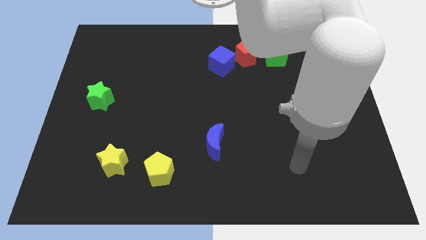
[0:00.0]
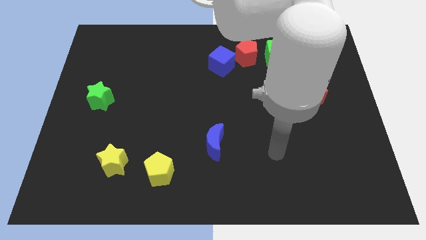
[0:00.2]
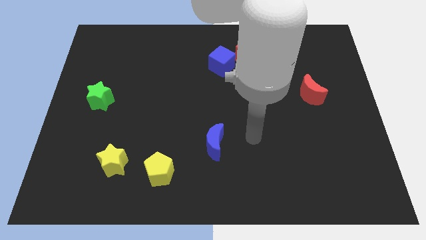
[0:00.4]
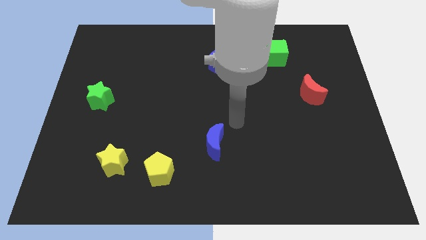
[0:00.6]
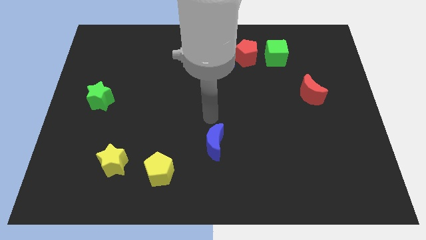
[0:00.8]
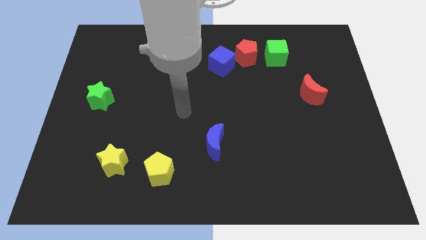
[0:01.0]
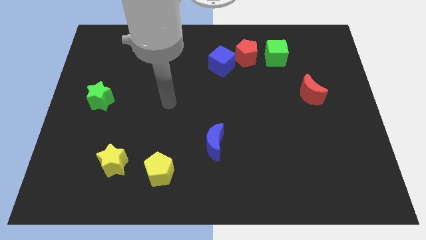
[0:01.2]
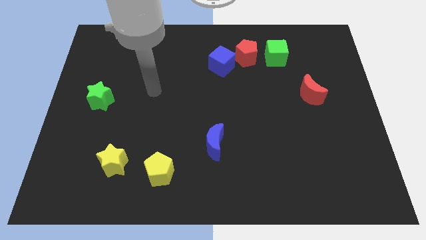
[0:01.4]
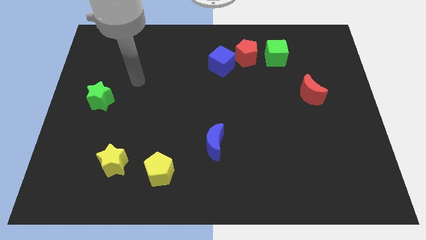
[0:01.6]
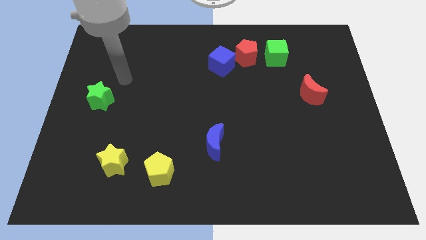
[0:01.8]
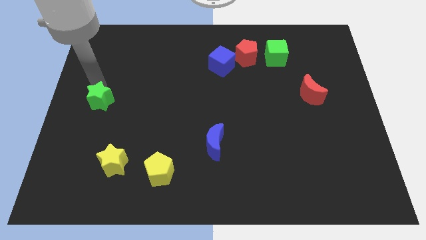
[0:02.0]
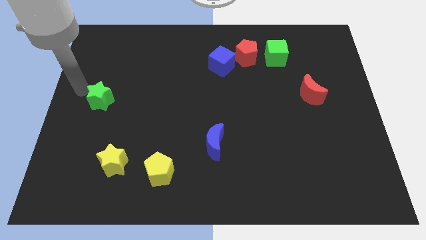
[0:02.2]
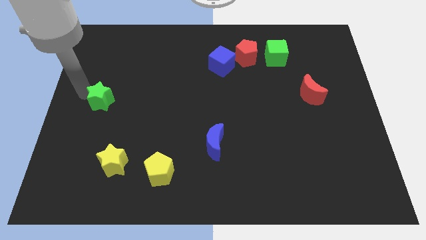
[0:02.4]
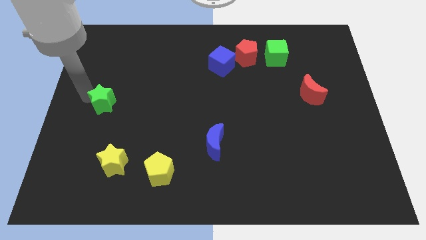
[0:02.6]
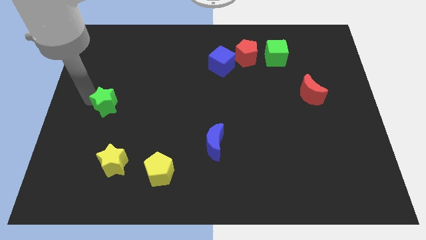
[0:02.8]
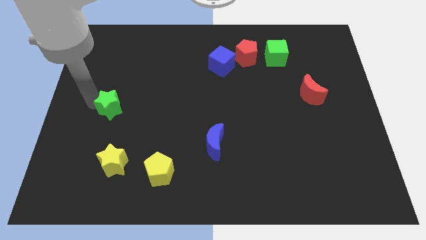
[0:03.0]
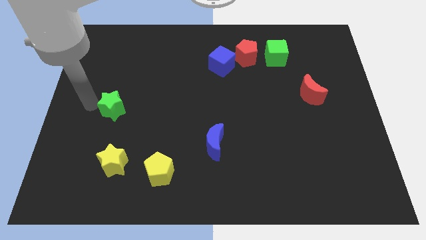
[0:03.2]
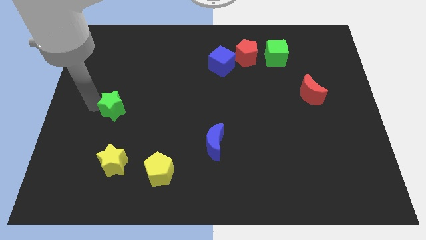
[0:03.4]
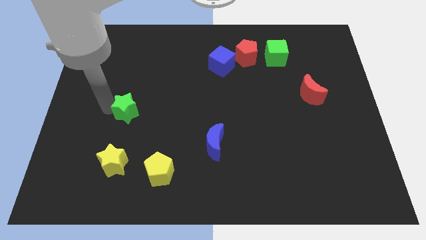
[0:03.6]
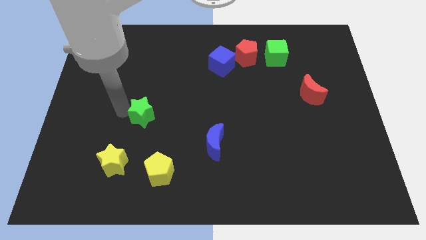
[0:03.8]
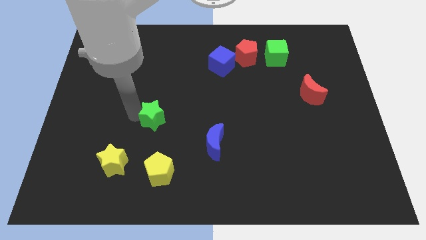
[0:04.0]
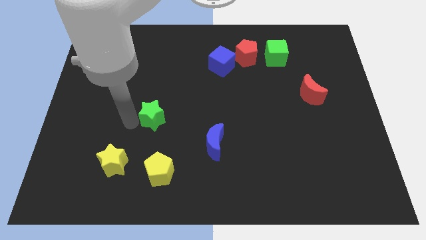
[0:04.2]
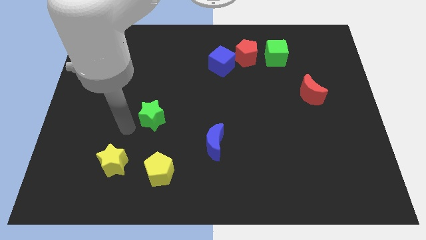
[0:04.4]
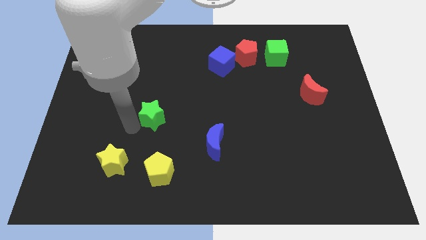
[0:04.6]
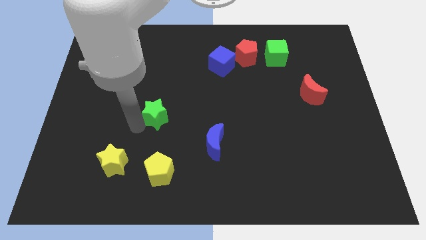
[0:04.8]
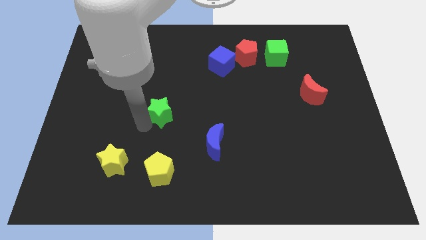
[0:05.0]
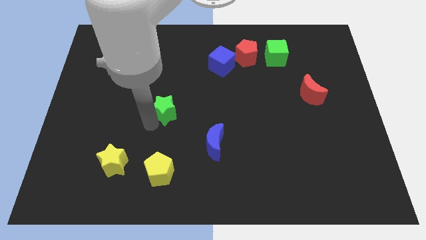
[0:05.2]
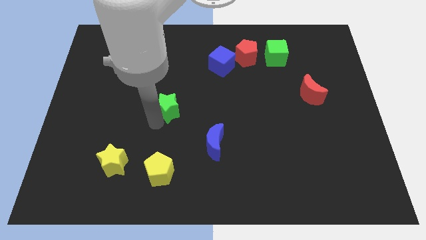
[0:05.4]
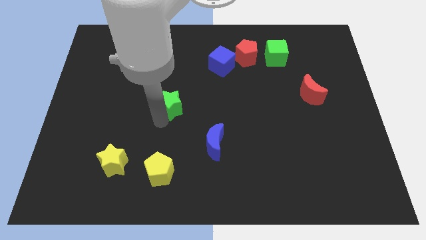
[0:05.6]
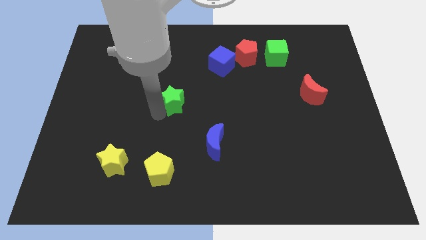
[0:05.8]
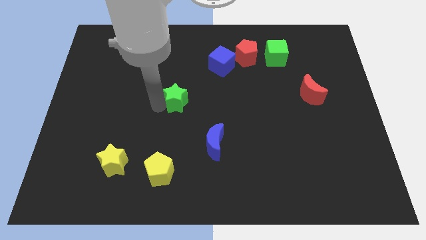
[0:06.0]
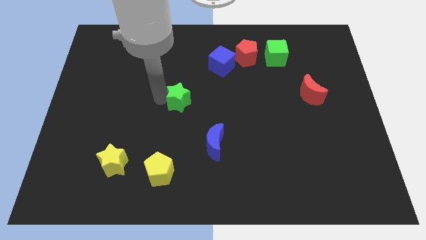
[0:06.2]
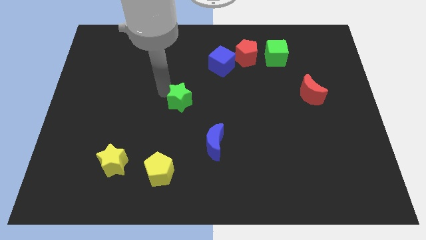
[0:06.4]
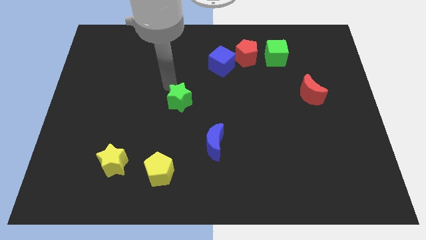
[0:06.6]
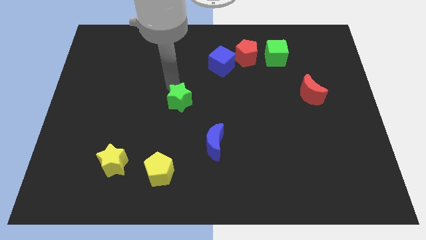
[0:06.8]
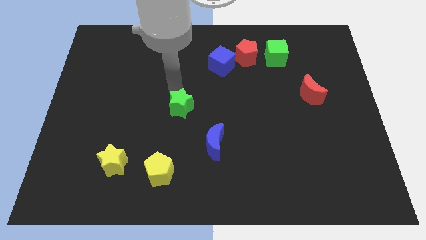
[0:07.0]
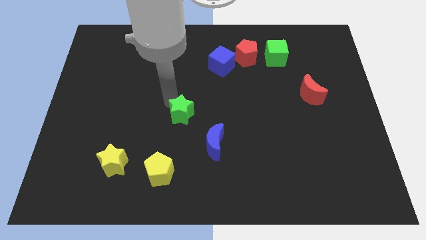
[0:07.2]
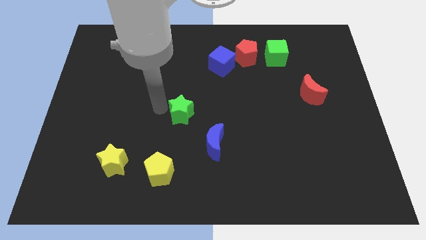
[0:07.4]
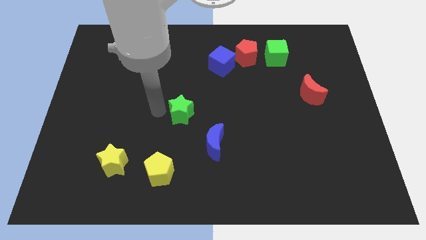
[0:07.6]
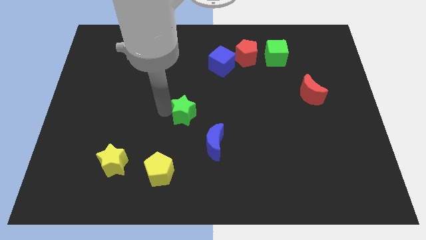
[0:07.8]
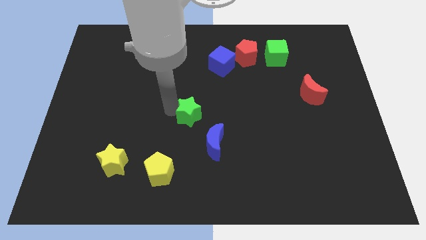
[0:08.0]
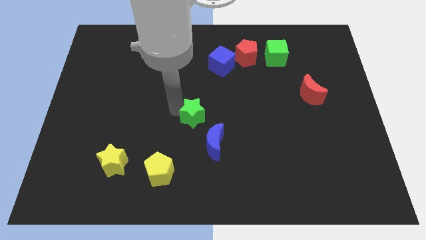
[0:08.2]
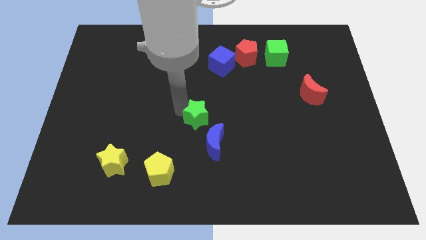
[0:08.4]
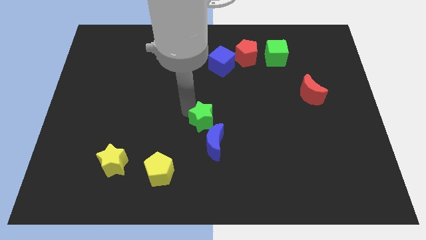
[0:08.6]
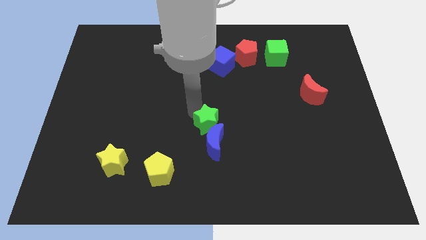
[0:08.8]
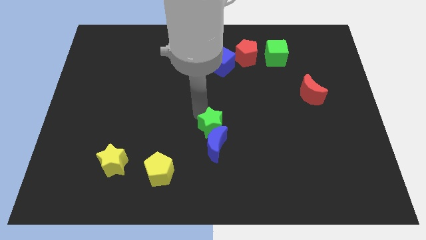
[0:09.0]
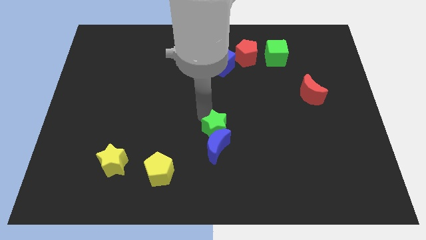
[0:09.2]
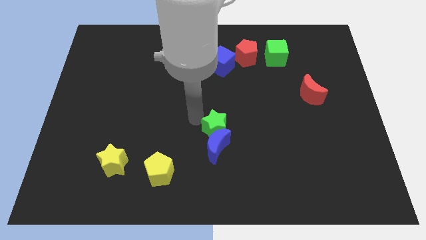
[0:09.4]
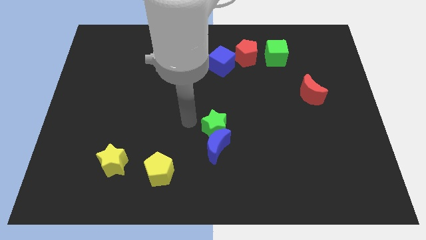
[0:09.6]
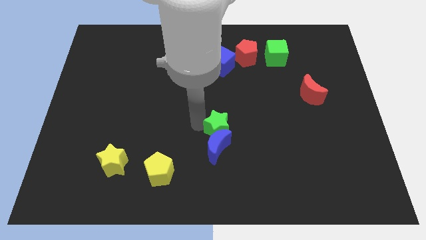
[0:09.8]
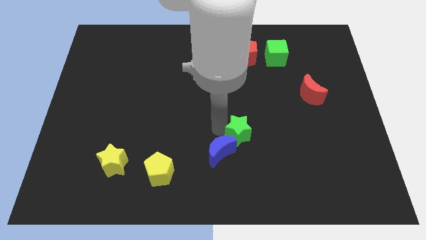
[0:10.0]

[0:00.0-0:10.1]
put the green star to the right of the blue moon

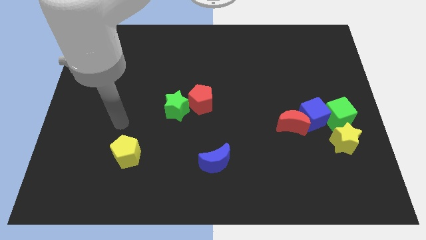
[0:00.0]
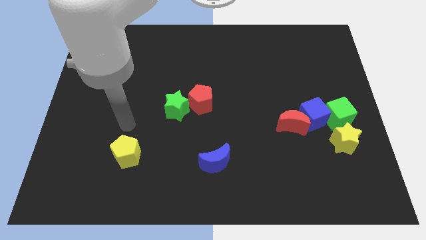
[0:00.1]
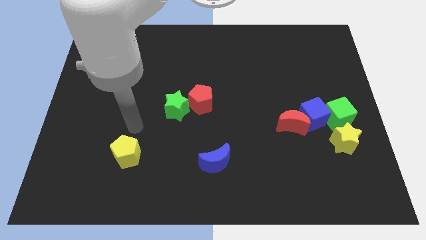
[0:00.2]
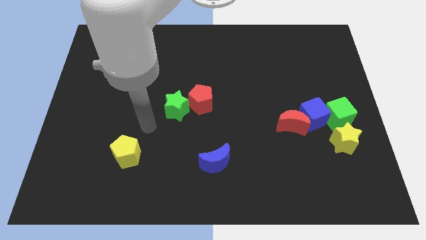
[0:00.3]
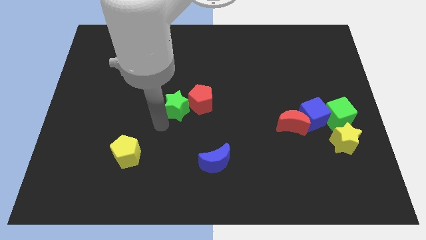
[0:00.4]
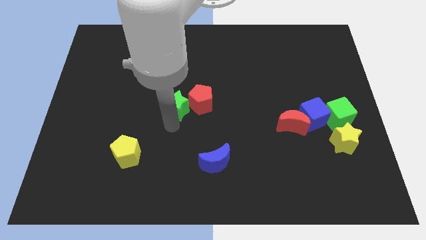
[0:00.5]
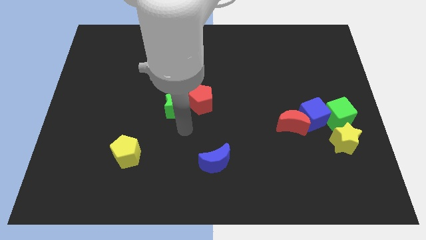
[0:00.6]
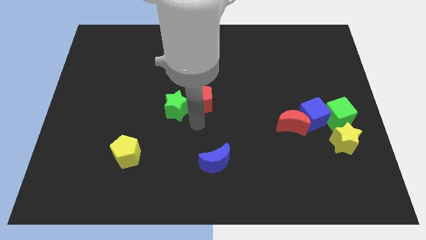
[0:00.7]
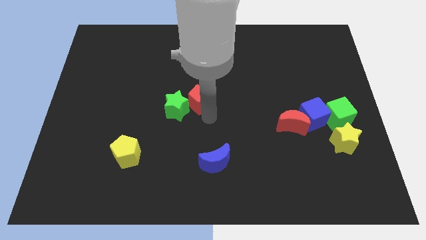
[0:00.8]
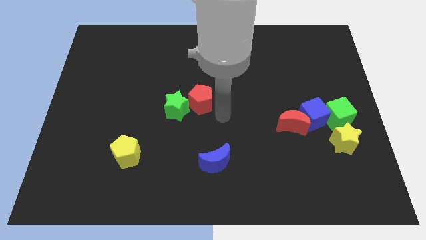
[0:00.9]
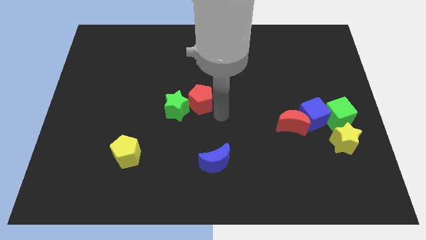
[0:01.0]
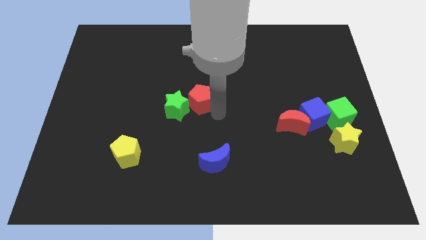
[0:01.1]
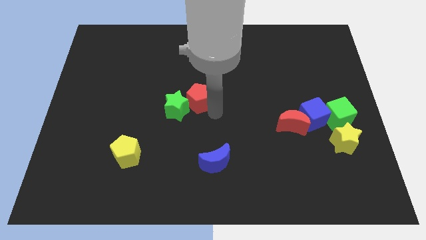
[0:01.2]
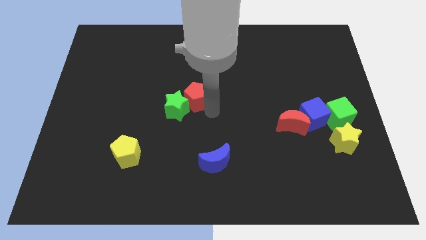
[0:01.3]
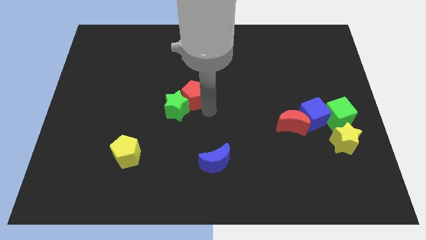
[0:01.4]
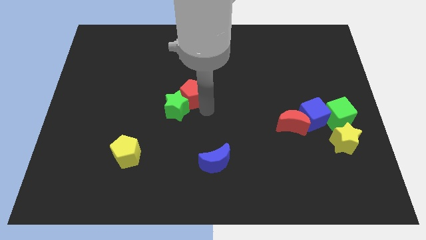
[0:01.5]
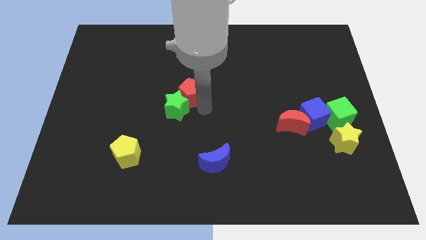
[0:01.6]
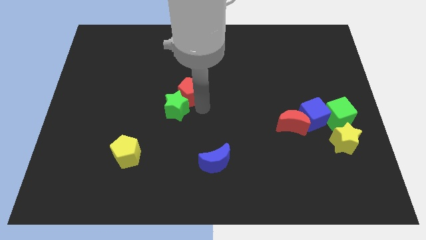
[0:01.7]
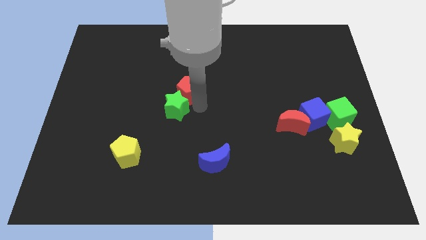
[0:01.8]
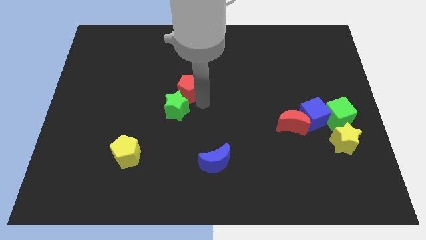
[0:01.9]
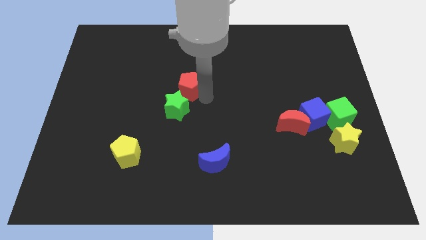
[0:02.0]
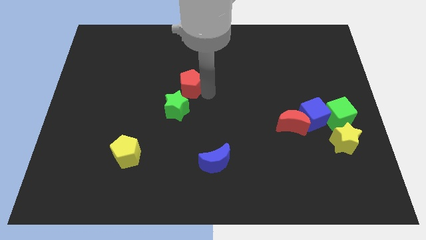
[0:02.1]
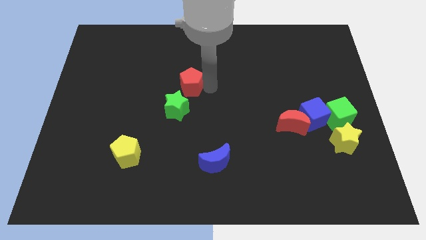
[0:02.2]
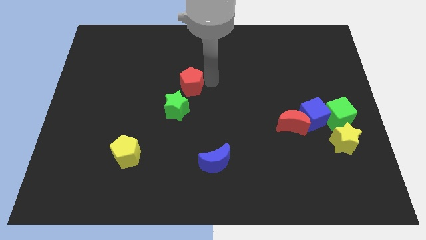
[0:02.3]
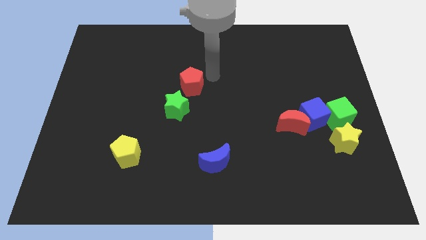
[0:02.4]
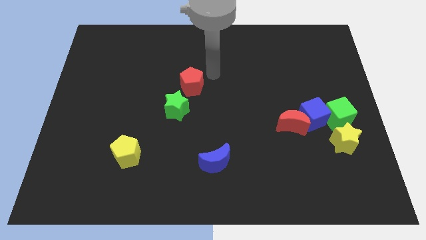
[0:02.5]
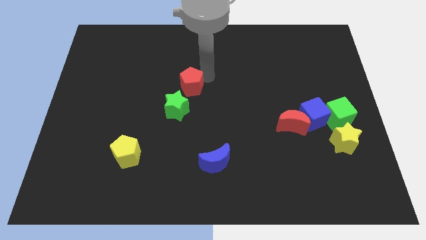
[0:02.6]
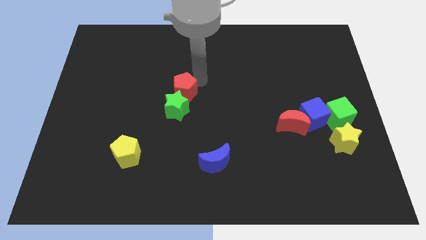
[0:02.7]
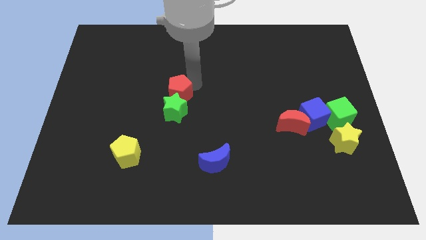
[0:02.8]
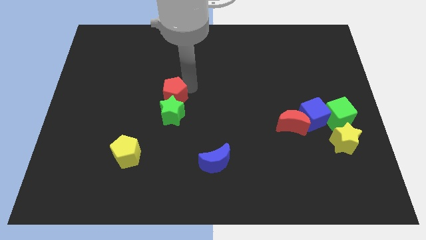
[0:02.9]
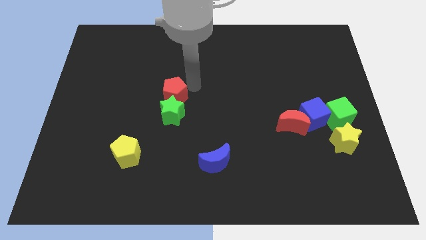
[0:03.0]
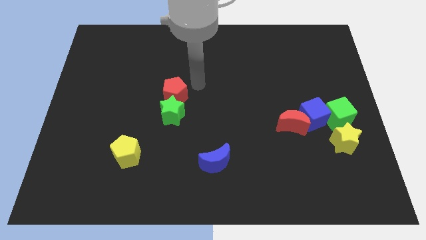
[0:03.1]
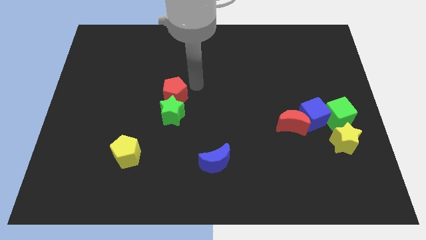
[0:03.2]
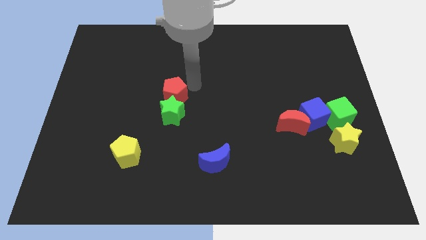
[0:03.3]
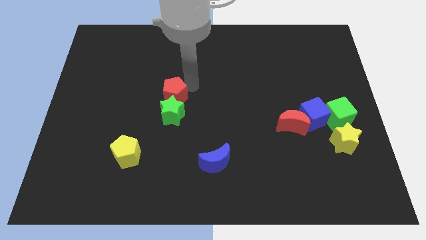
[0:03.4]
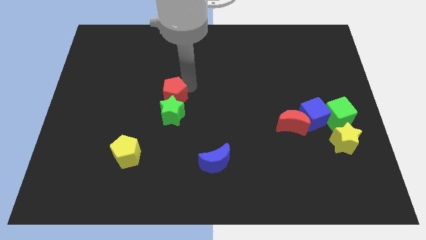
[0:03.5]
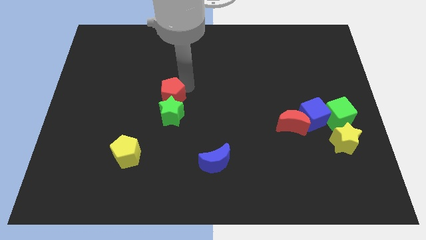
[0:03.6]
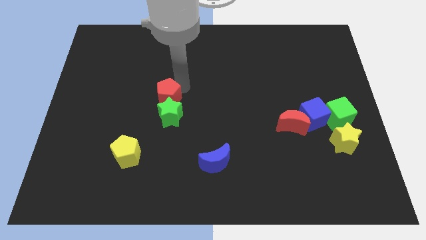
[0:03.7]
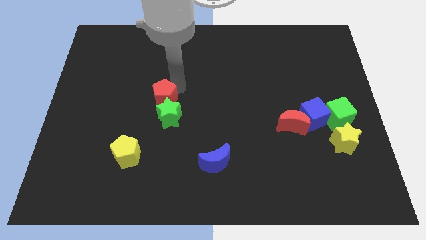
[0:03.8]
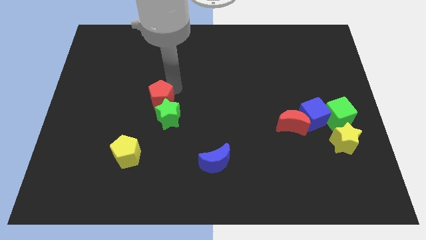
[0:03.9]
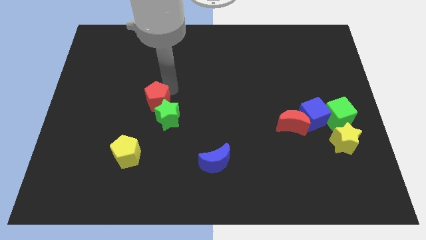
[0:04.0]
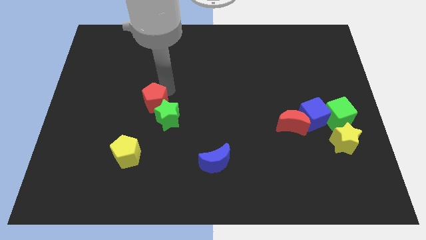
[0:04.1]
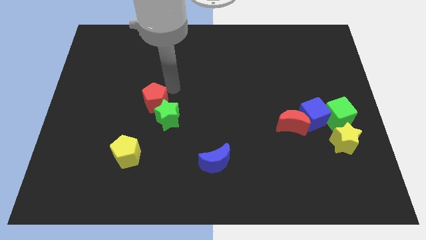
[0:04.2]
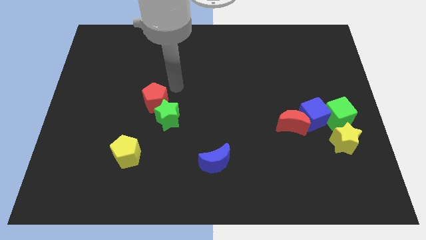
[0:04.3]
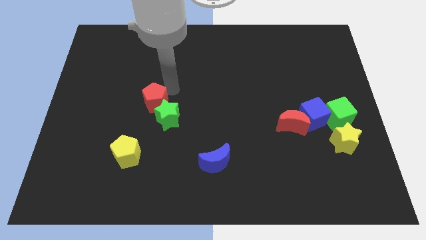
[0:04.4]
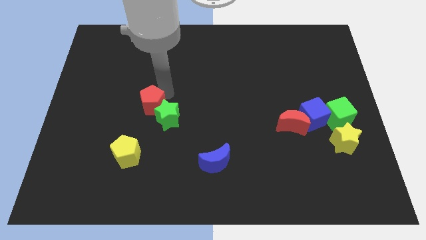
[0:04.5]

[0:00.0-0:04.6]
slide the red pentagon to the top of the yellow pentagon
